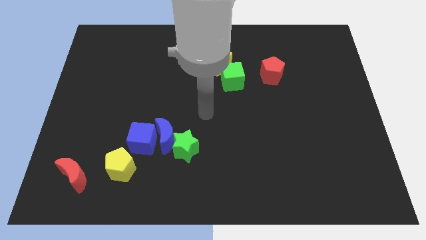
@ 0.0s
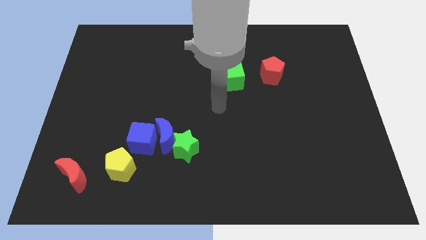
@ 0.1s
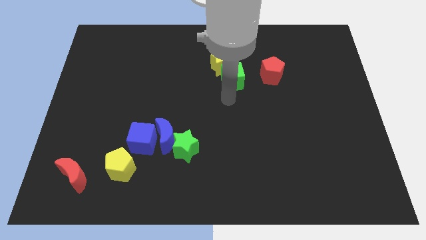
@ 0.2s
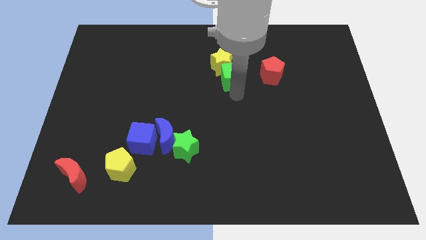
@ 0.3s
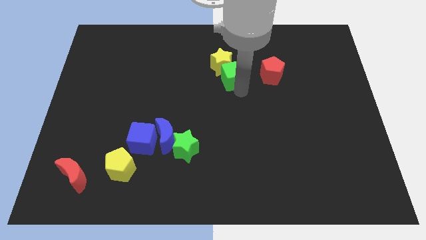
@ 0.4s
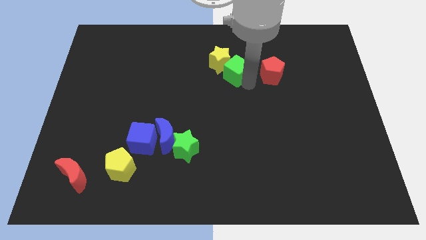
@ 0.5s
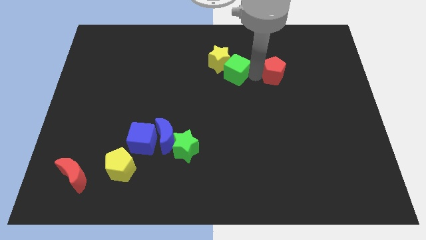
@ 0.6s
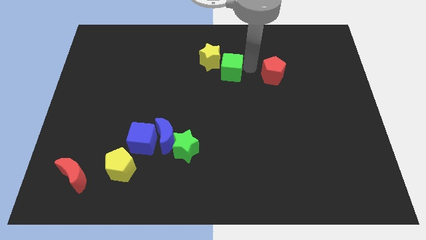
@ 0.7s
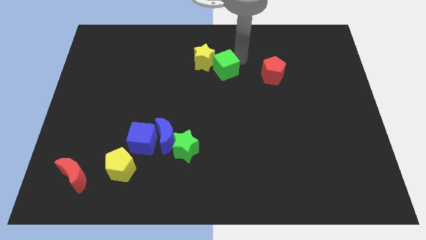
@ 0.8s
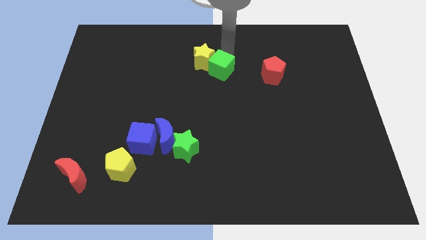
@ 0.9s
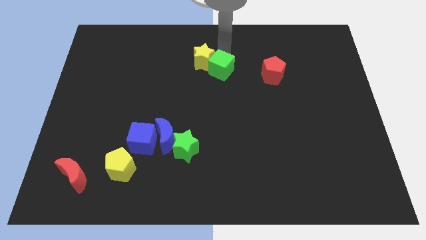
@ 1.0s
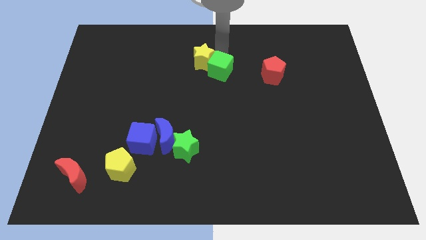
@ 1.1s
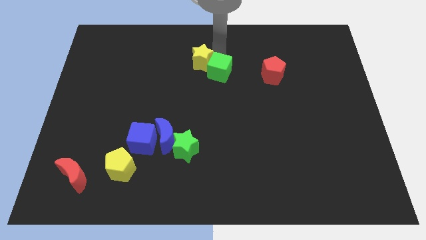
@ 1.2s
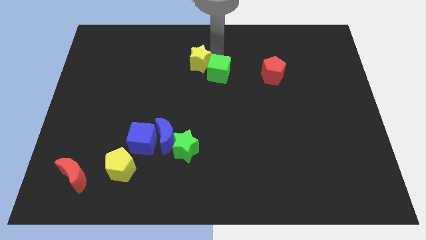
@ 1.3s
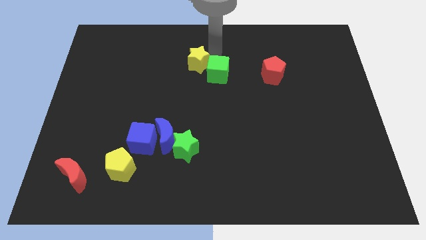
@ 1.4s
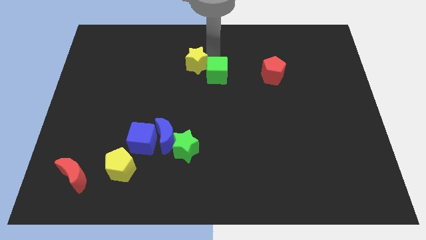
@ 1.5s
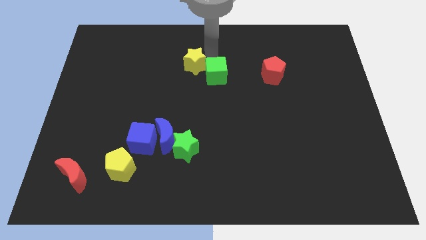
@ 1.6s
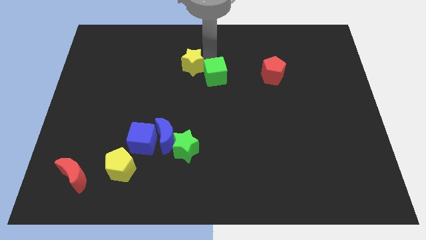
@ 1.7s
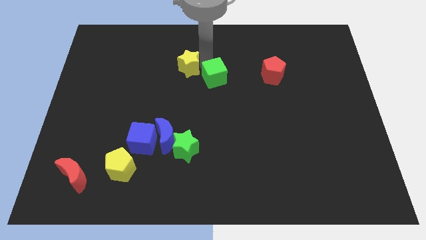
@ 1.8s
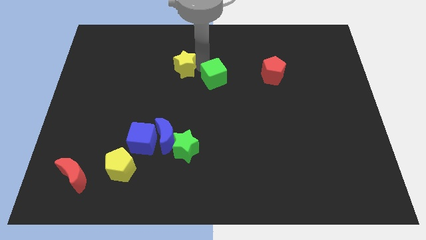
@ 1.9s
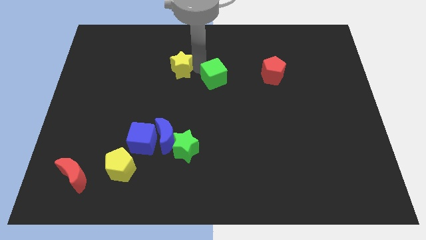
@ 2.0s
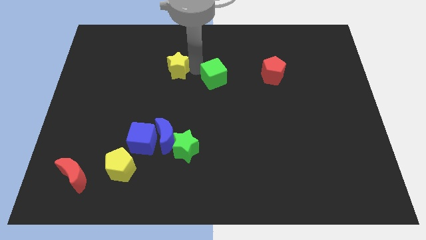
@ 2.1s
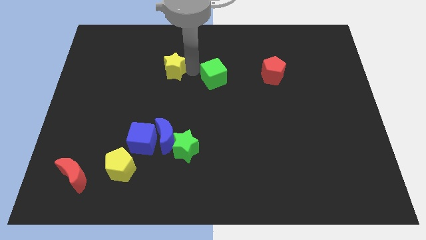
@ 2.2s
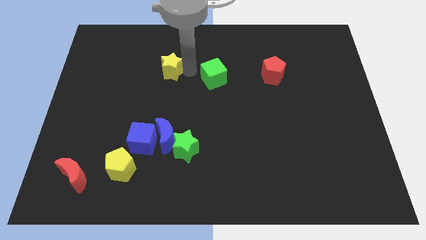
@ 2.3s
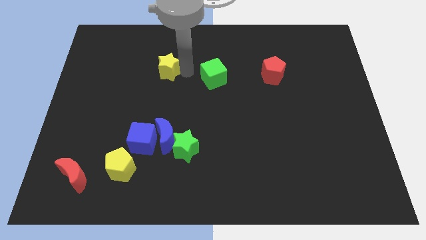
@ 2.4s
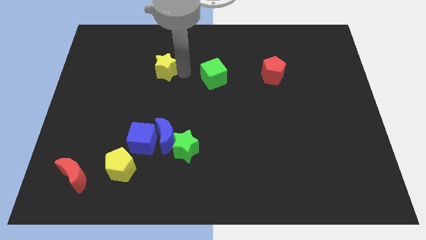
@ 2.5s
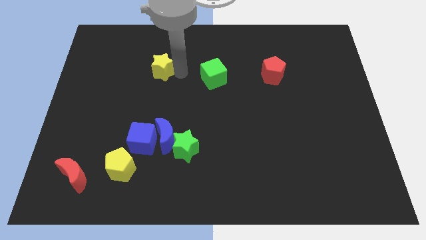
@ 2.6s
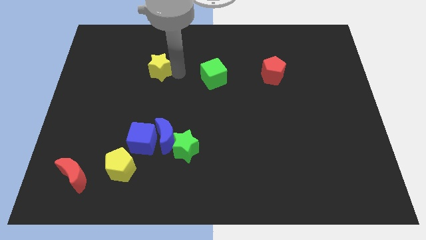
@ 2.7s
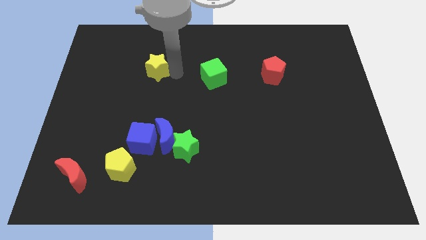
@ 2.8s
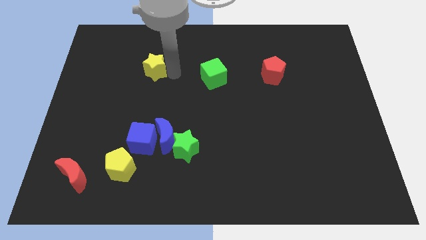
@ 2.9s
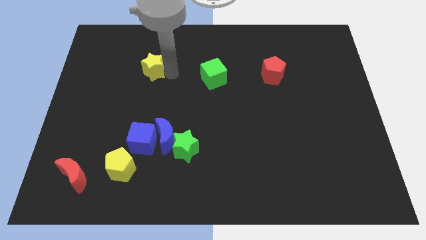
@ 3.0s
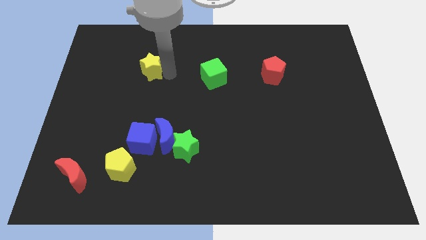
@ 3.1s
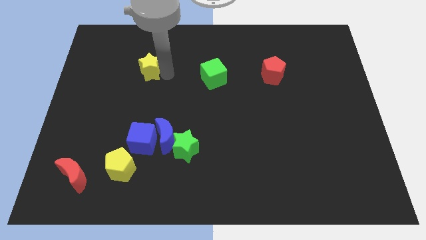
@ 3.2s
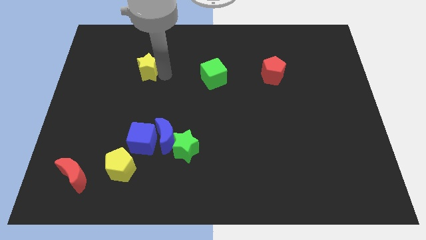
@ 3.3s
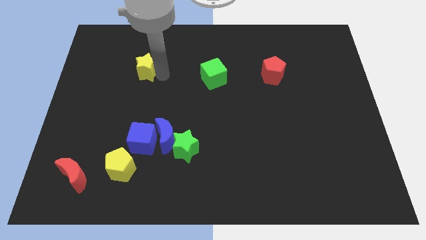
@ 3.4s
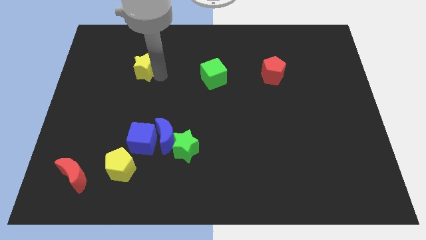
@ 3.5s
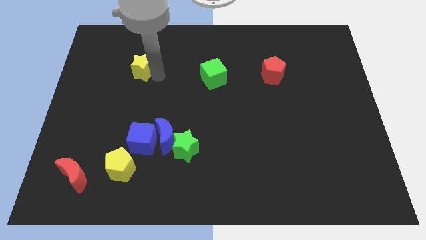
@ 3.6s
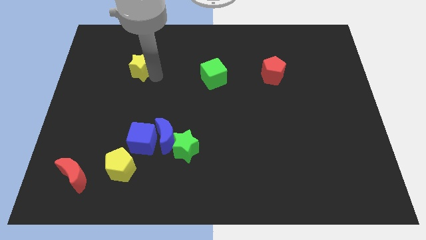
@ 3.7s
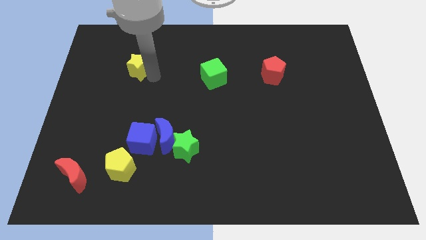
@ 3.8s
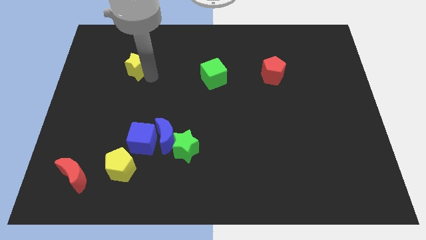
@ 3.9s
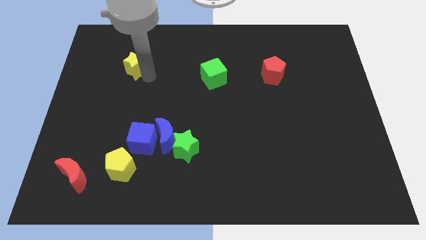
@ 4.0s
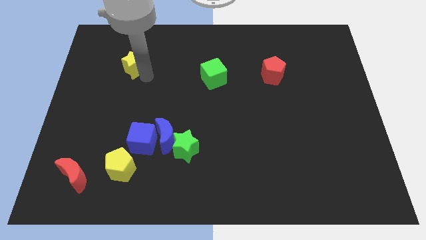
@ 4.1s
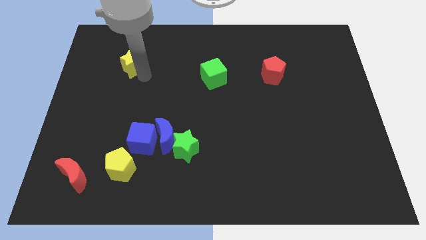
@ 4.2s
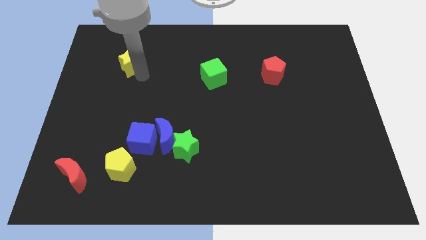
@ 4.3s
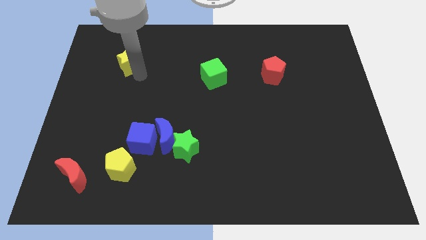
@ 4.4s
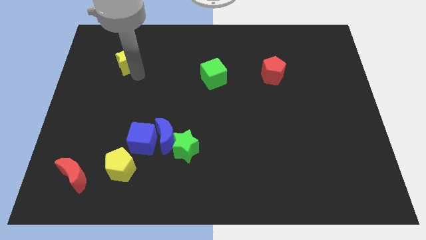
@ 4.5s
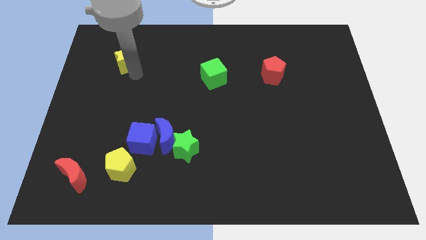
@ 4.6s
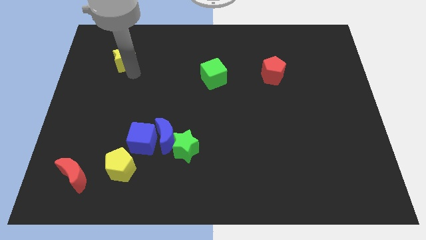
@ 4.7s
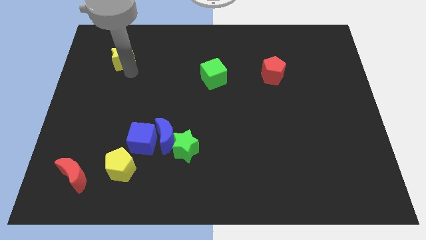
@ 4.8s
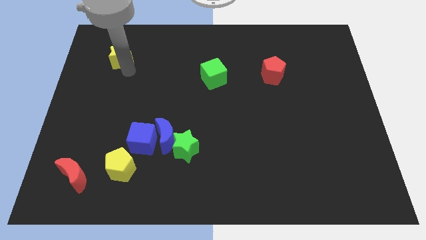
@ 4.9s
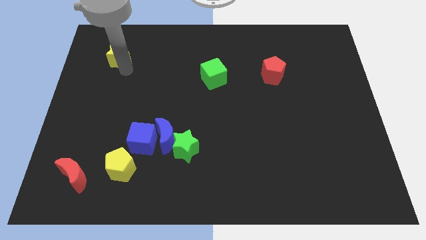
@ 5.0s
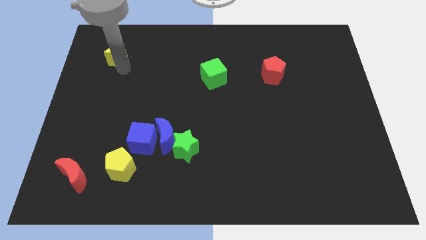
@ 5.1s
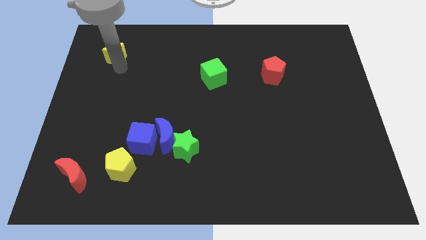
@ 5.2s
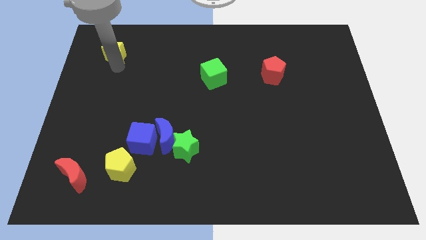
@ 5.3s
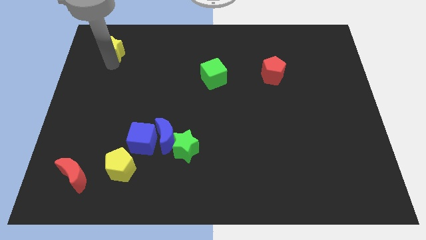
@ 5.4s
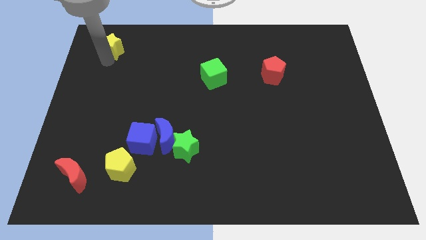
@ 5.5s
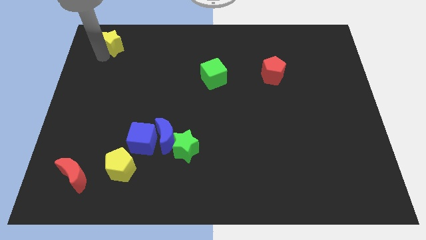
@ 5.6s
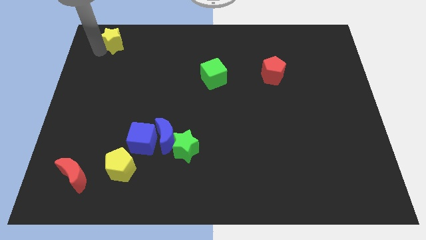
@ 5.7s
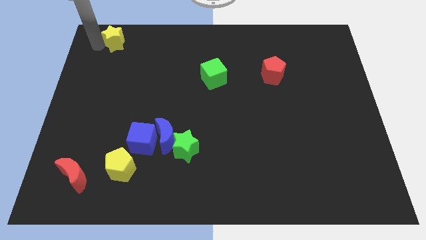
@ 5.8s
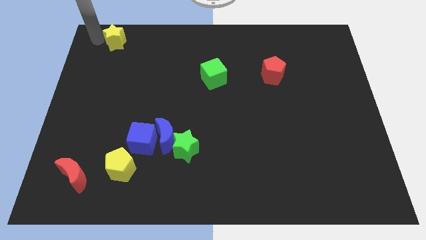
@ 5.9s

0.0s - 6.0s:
move the yellow star to the top left of the board
